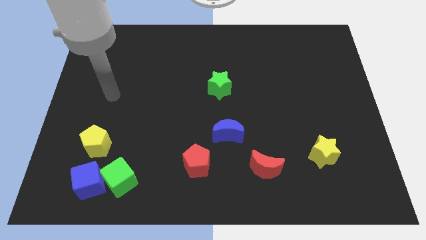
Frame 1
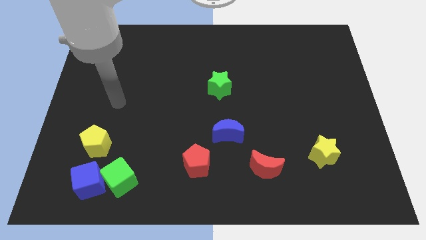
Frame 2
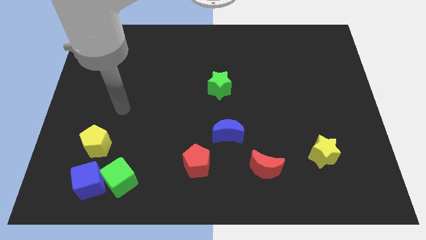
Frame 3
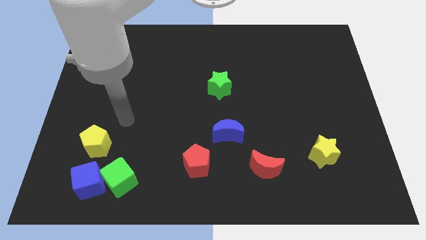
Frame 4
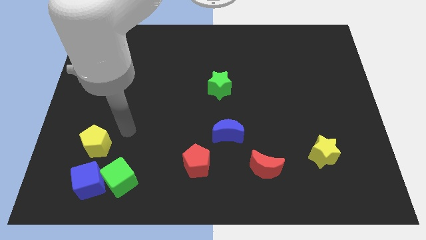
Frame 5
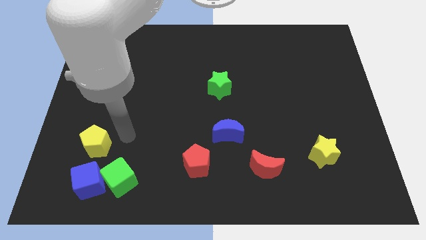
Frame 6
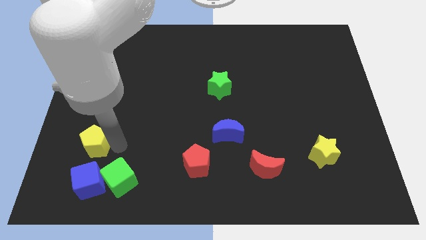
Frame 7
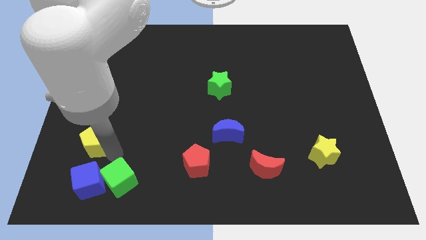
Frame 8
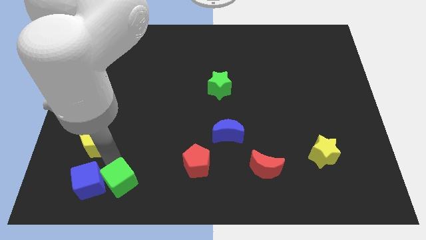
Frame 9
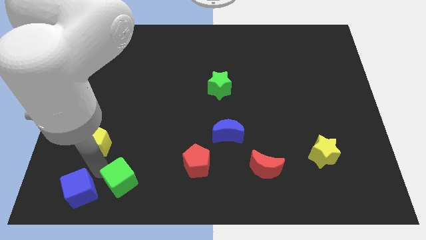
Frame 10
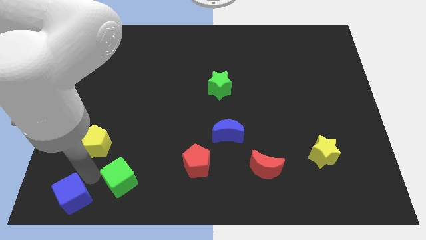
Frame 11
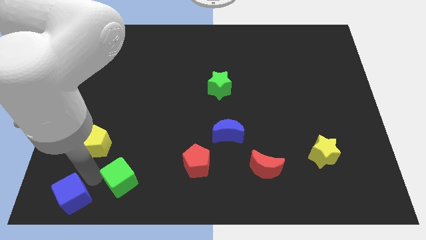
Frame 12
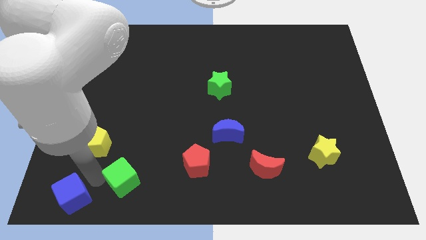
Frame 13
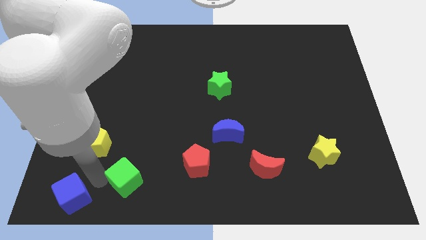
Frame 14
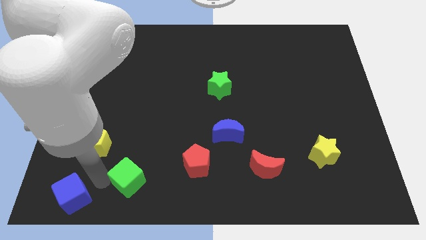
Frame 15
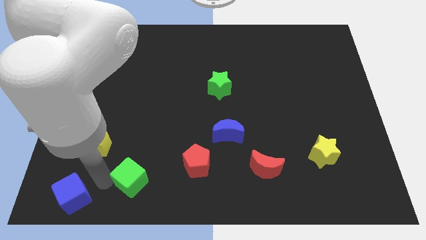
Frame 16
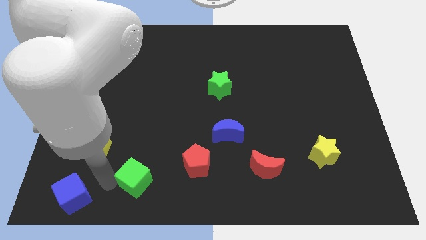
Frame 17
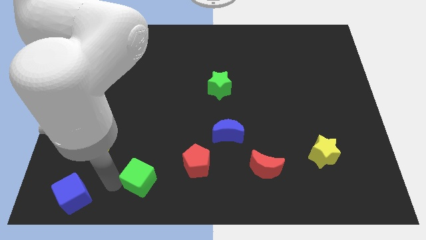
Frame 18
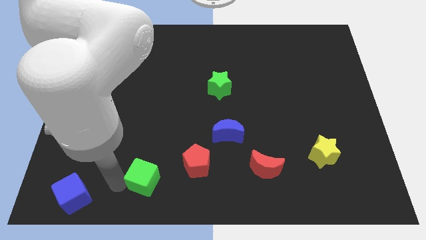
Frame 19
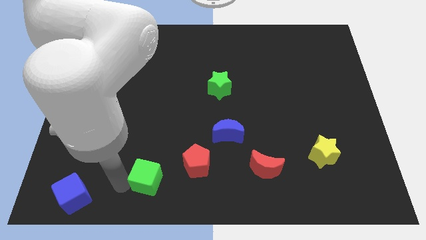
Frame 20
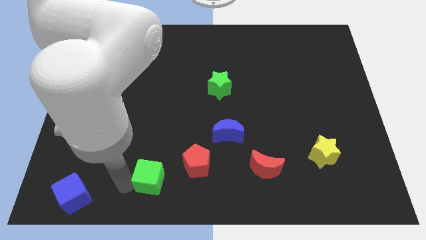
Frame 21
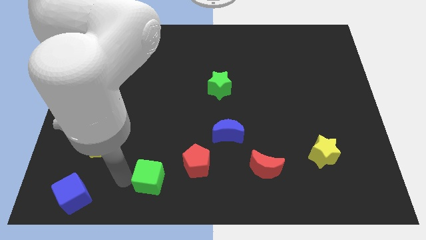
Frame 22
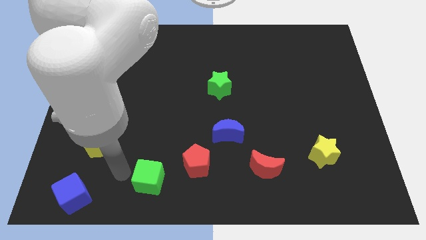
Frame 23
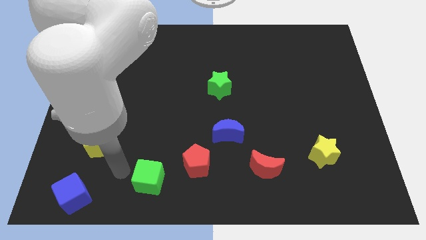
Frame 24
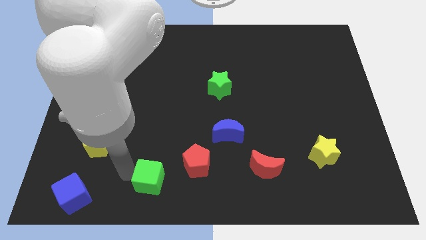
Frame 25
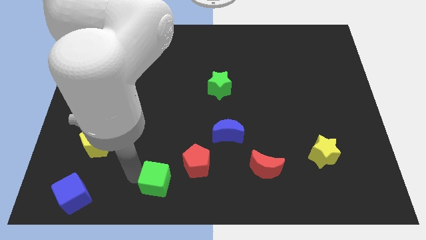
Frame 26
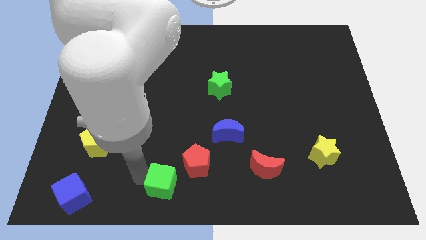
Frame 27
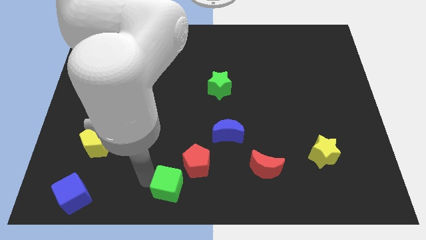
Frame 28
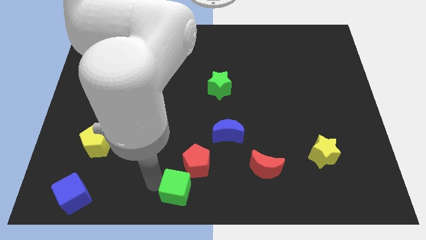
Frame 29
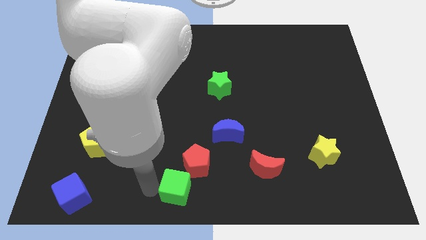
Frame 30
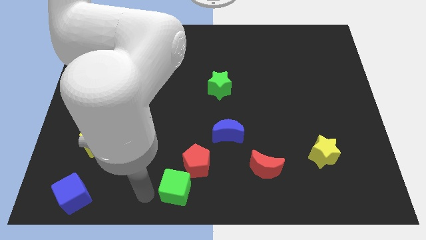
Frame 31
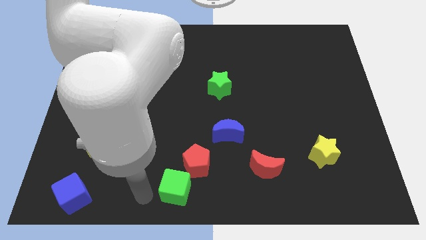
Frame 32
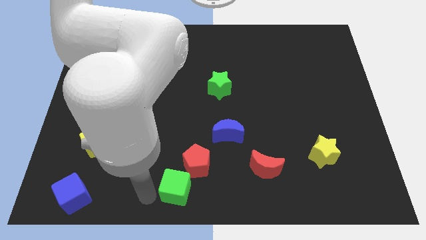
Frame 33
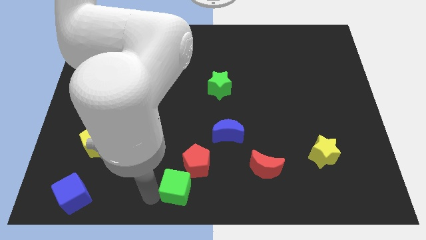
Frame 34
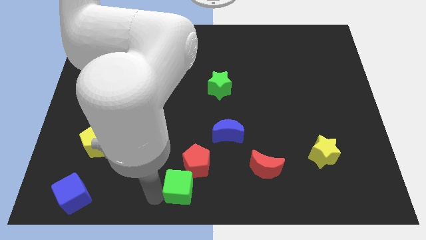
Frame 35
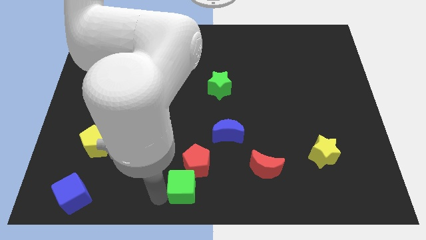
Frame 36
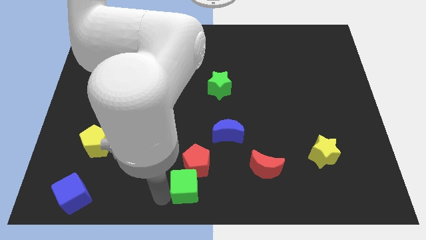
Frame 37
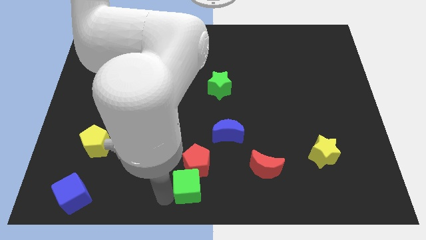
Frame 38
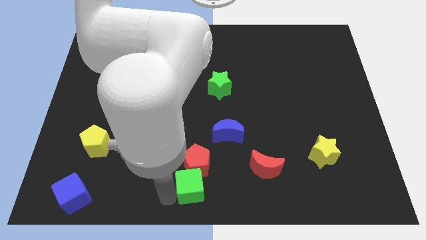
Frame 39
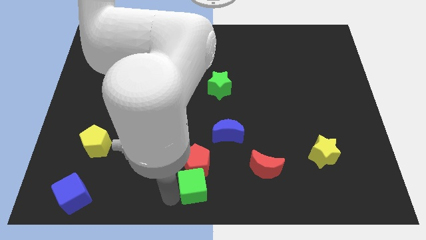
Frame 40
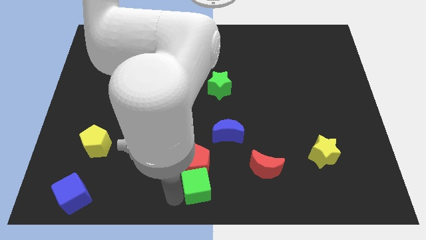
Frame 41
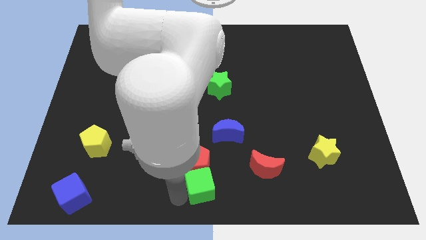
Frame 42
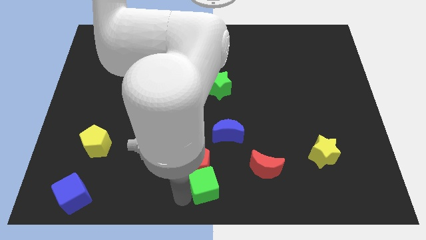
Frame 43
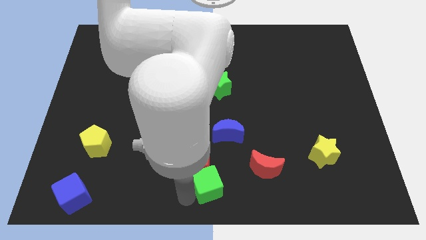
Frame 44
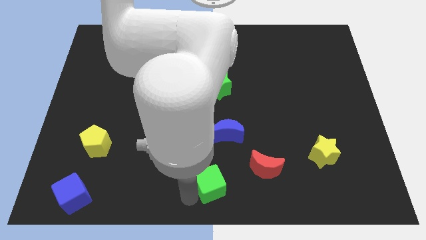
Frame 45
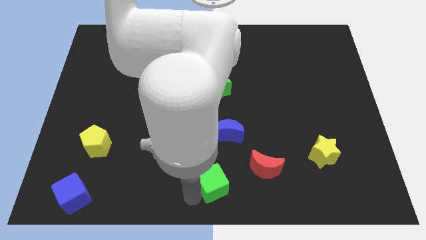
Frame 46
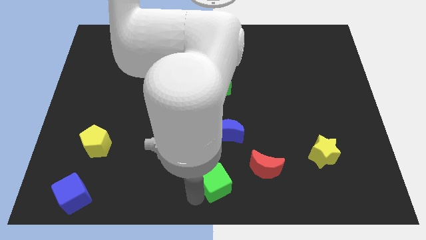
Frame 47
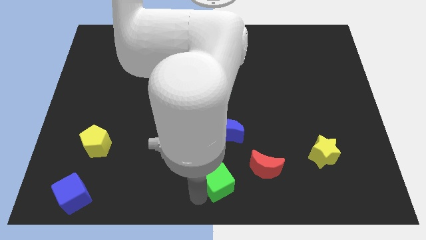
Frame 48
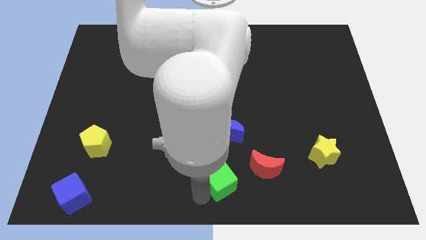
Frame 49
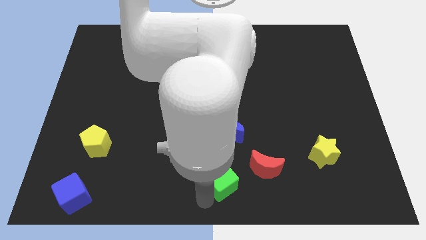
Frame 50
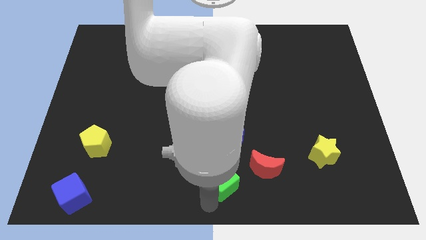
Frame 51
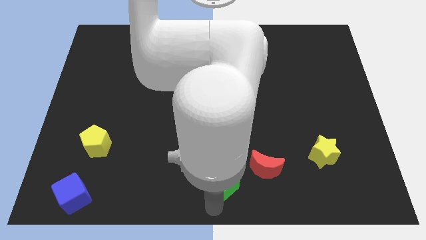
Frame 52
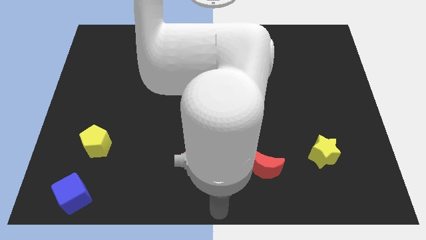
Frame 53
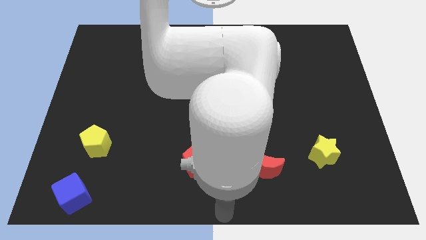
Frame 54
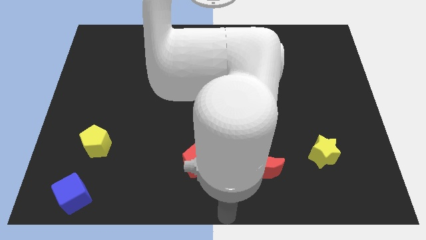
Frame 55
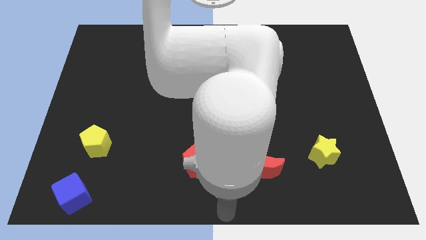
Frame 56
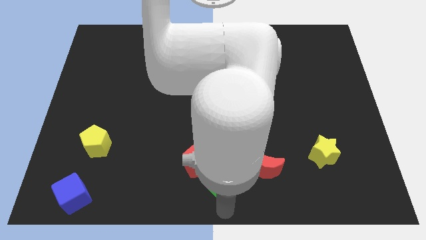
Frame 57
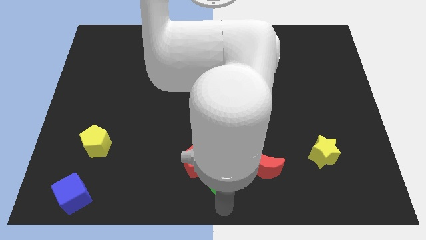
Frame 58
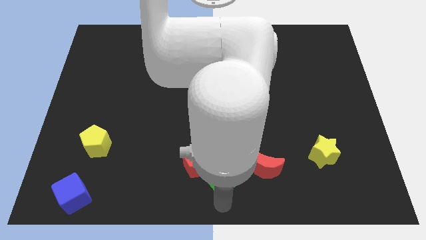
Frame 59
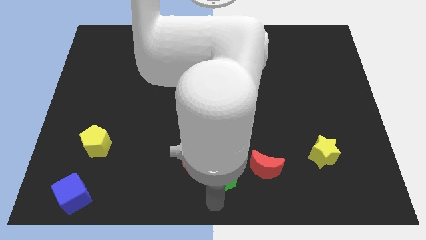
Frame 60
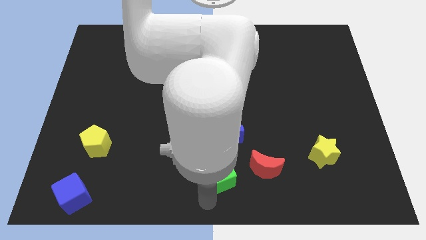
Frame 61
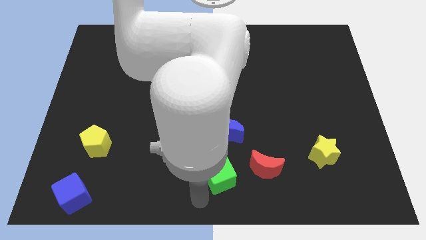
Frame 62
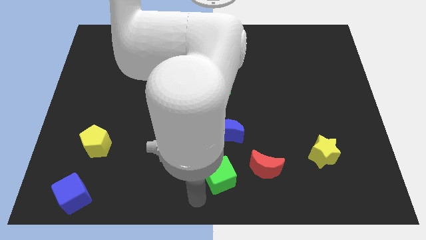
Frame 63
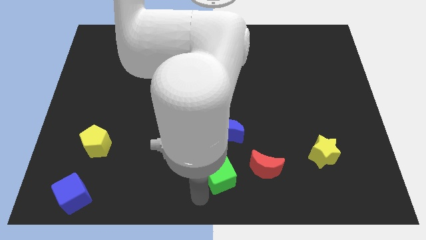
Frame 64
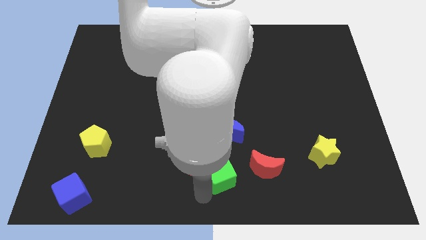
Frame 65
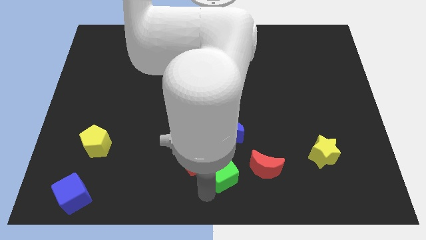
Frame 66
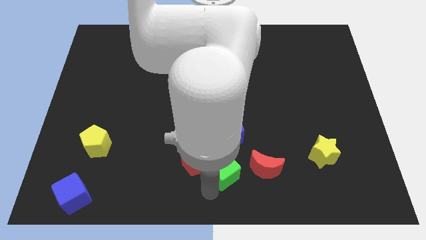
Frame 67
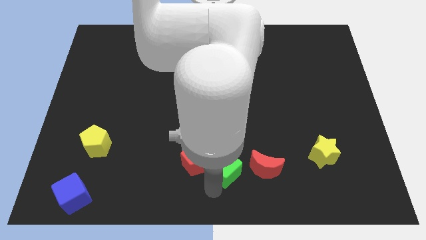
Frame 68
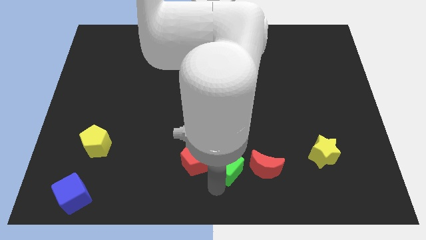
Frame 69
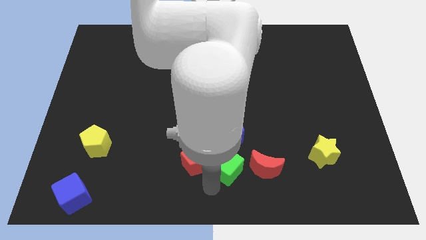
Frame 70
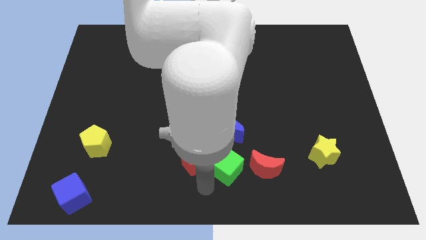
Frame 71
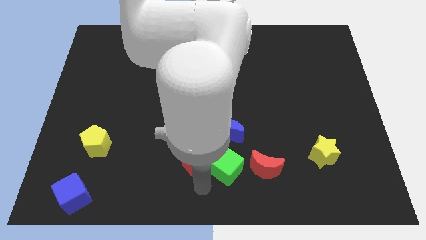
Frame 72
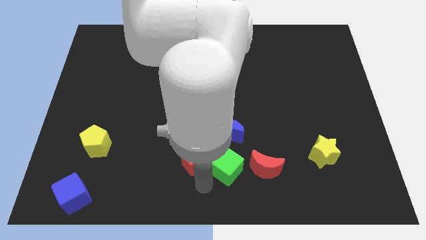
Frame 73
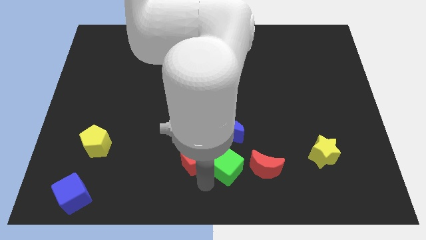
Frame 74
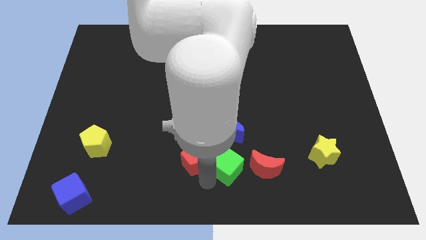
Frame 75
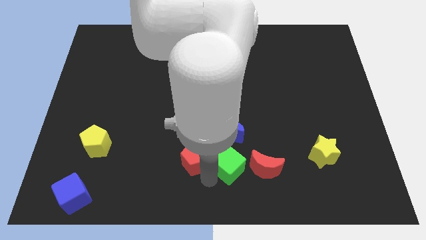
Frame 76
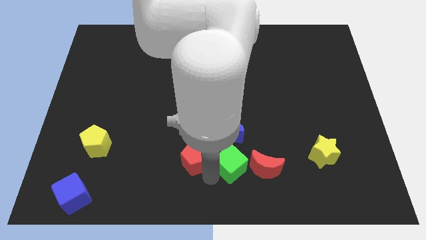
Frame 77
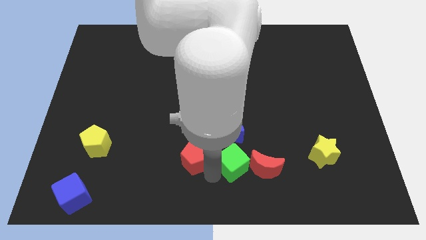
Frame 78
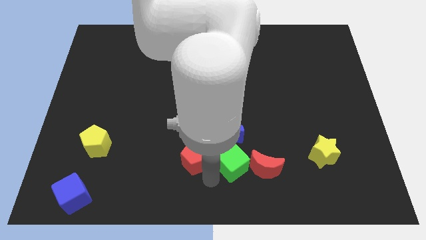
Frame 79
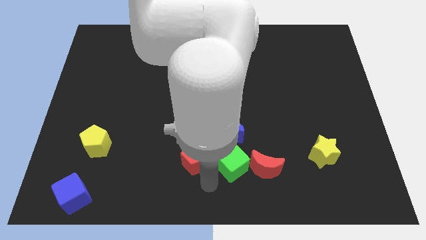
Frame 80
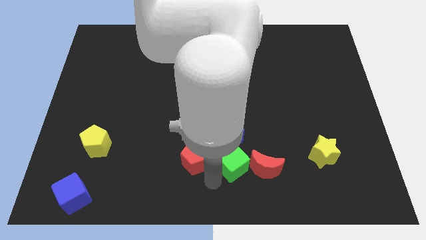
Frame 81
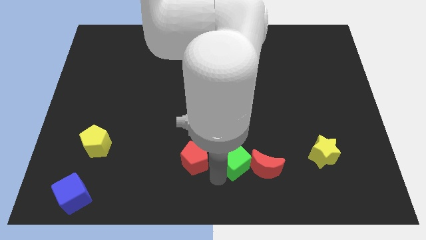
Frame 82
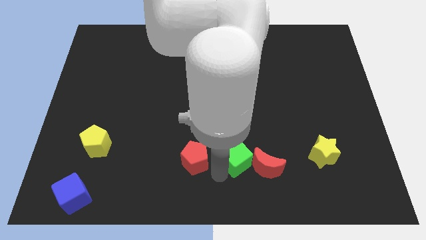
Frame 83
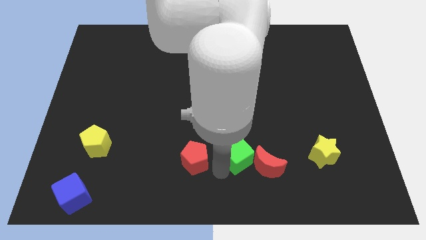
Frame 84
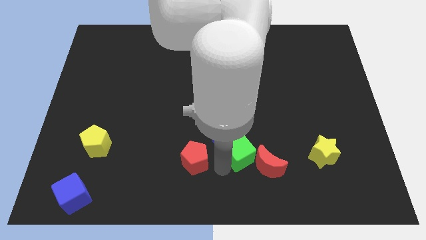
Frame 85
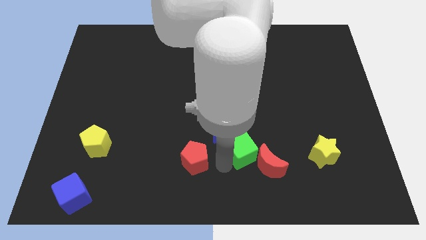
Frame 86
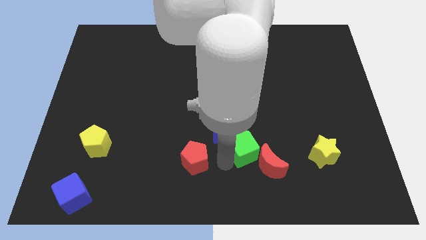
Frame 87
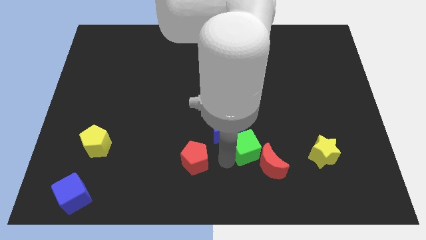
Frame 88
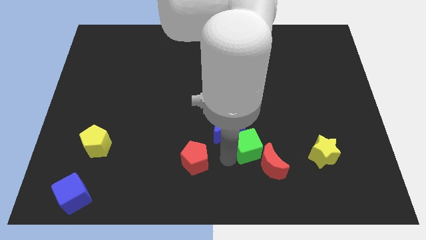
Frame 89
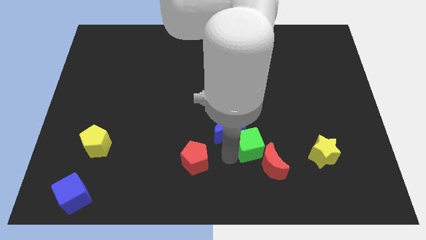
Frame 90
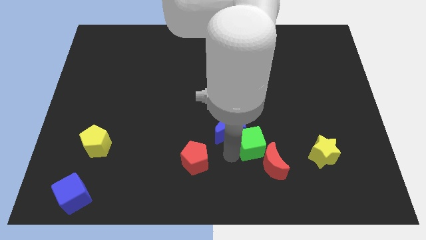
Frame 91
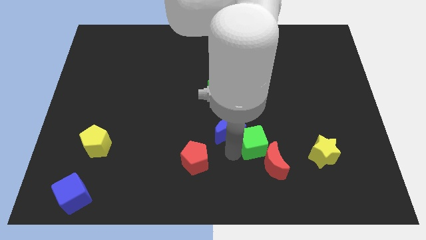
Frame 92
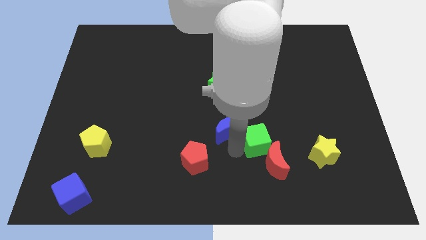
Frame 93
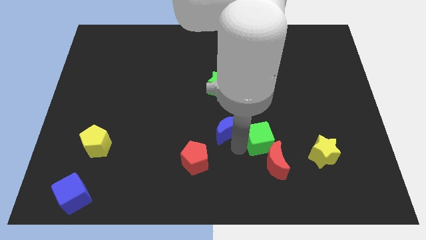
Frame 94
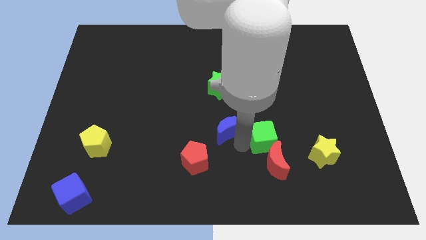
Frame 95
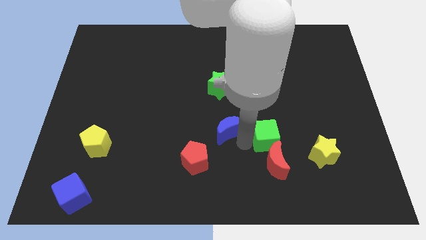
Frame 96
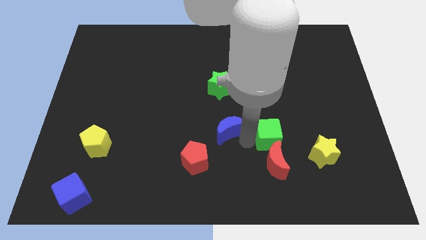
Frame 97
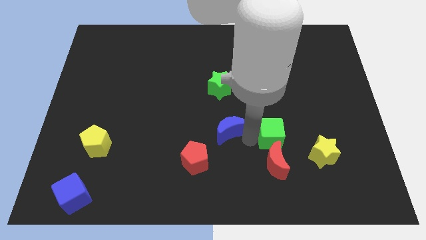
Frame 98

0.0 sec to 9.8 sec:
move the green cube to the top right side of the red moon
